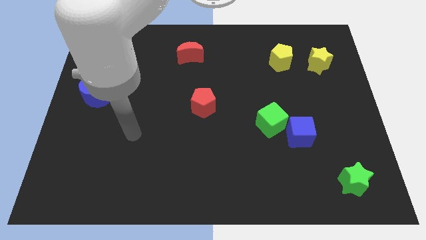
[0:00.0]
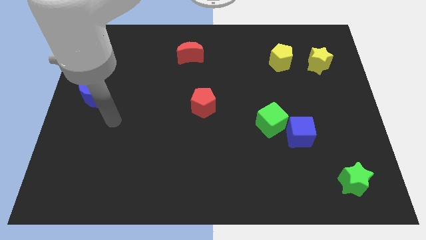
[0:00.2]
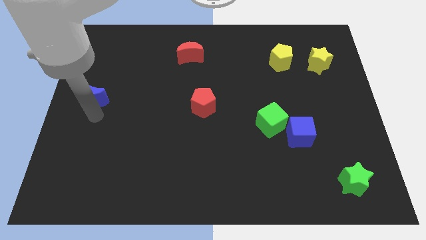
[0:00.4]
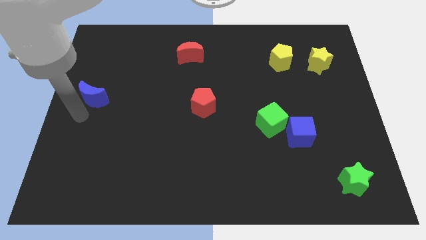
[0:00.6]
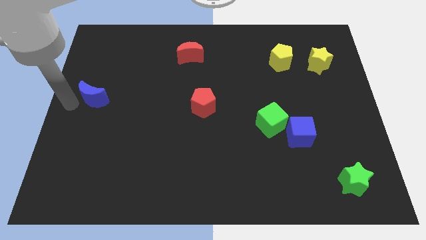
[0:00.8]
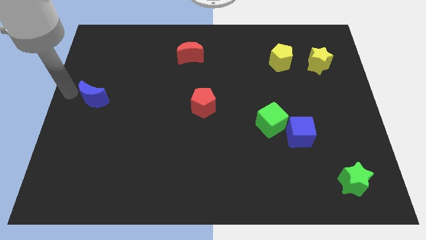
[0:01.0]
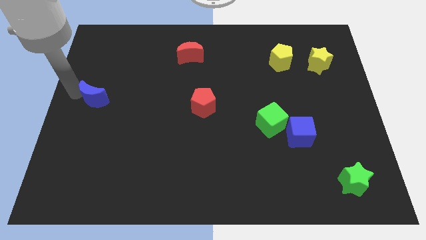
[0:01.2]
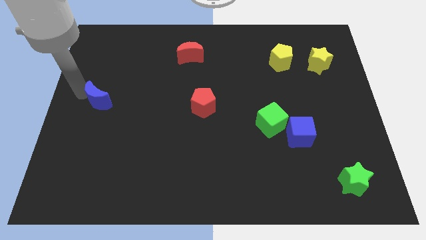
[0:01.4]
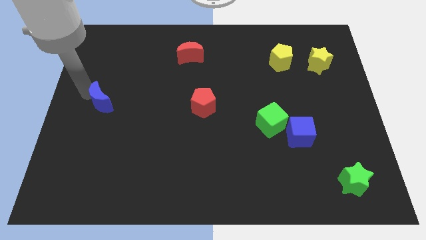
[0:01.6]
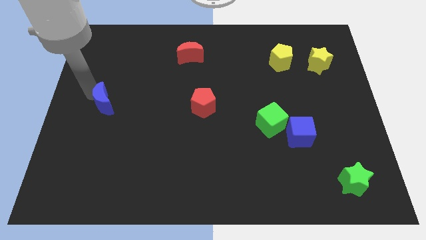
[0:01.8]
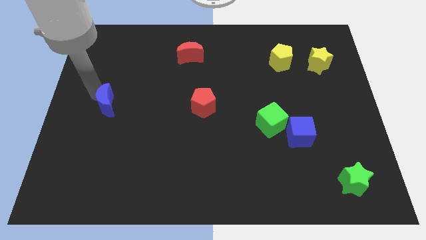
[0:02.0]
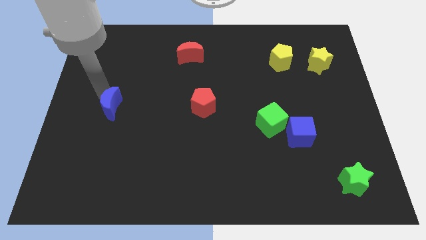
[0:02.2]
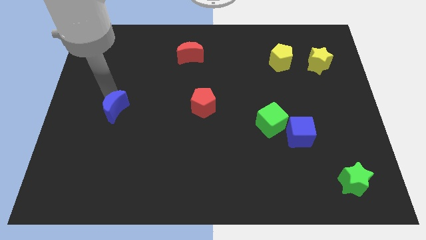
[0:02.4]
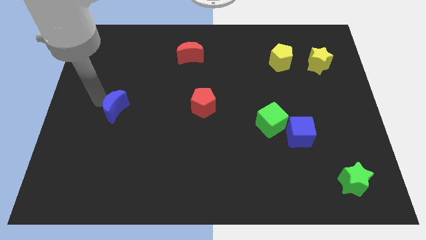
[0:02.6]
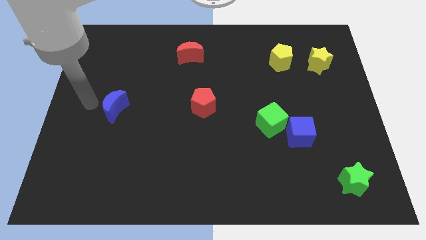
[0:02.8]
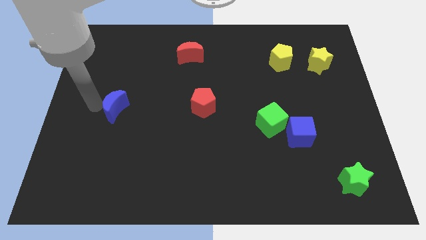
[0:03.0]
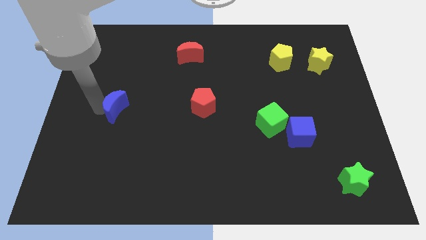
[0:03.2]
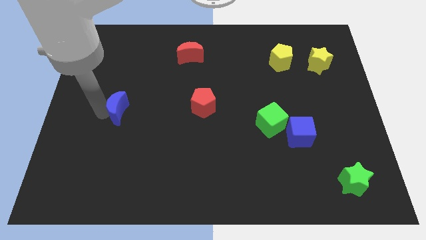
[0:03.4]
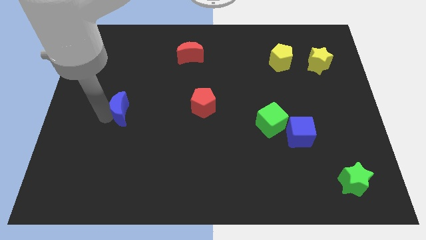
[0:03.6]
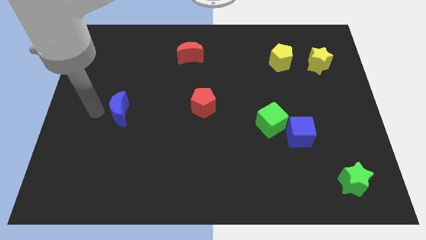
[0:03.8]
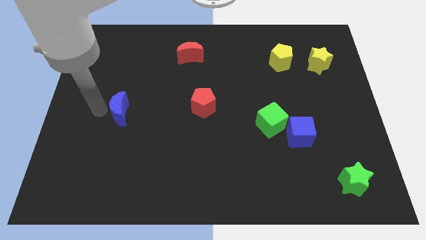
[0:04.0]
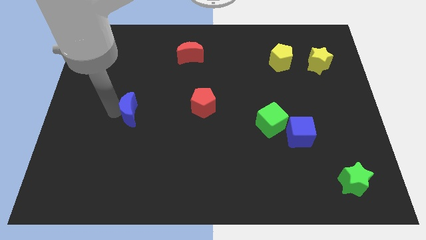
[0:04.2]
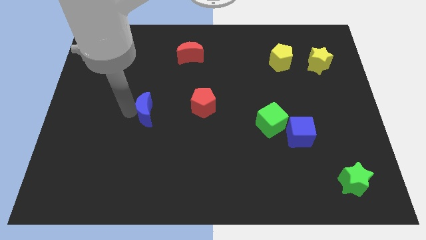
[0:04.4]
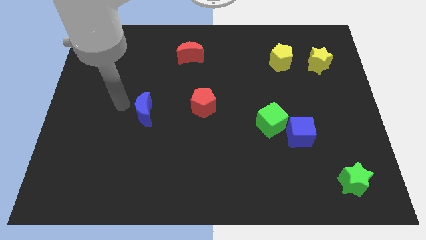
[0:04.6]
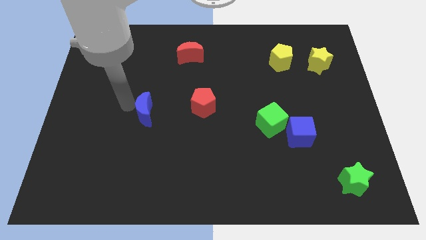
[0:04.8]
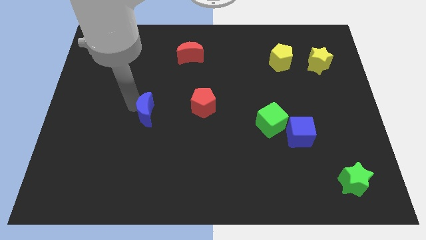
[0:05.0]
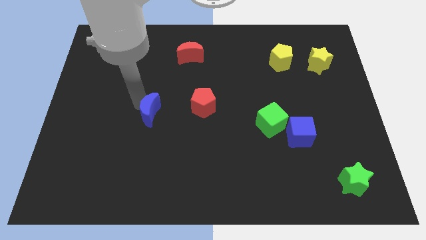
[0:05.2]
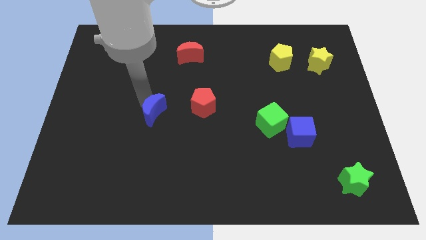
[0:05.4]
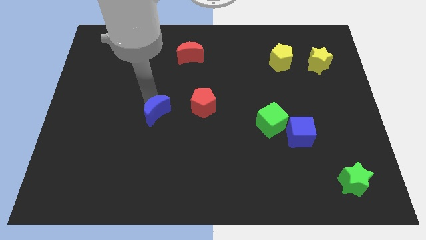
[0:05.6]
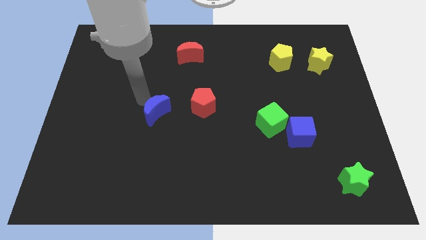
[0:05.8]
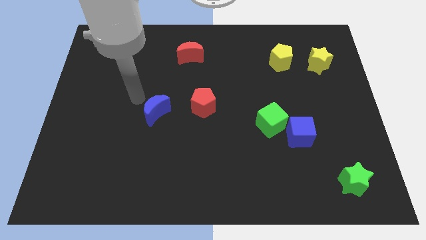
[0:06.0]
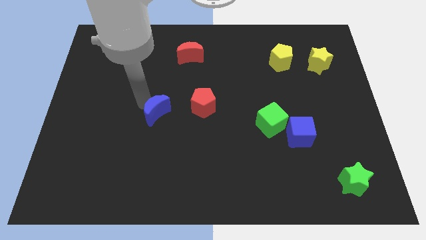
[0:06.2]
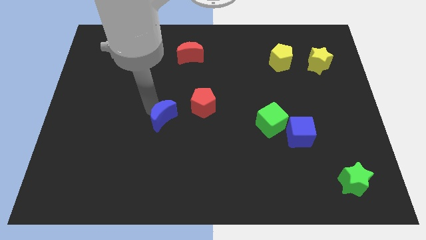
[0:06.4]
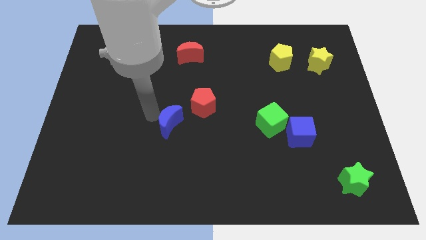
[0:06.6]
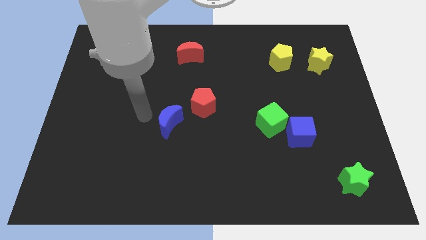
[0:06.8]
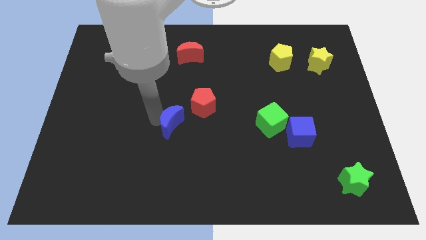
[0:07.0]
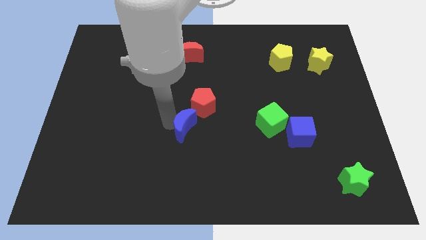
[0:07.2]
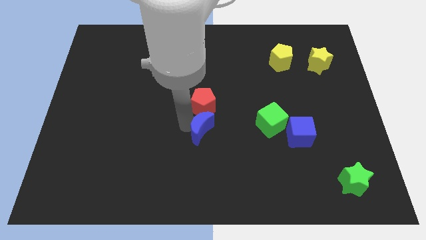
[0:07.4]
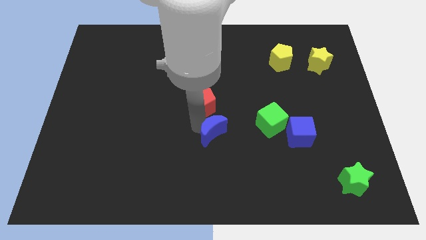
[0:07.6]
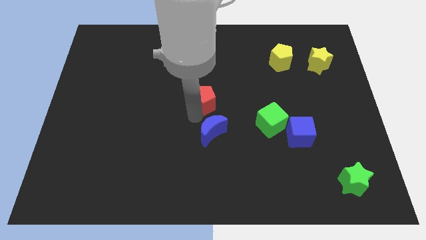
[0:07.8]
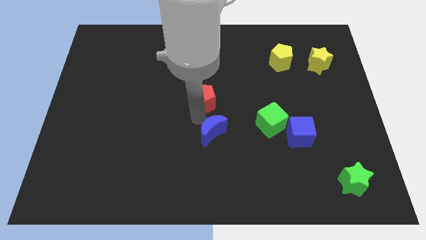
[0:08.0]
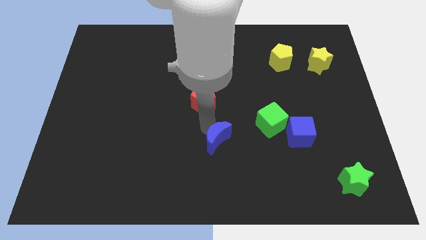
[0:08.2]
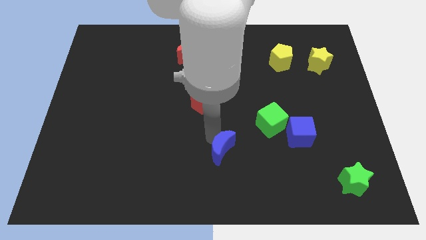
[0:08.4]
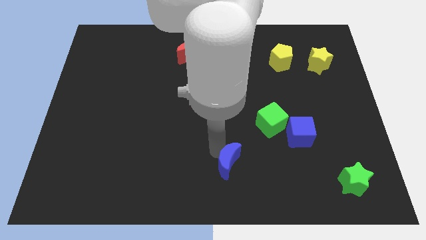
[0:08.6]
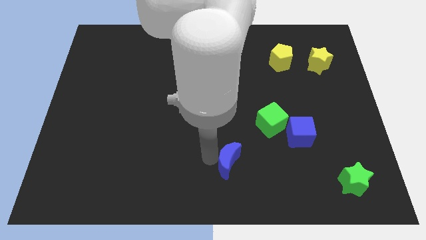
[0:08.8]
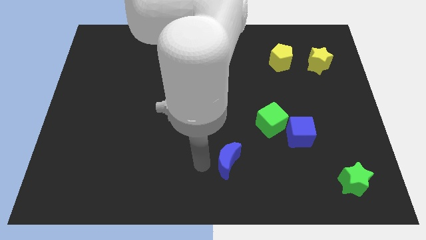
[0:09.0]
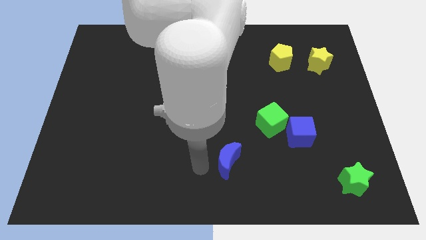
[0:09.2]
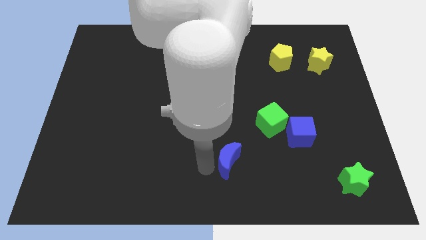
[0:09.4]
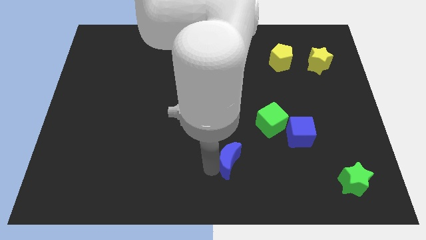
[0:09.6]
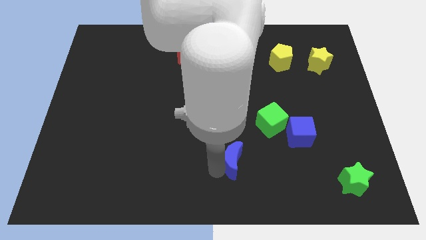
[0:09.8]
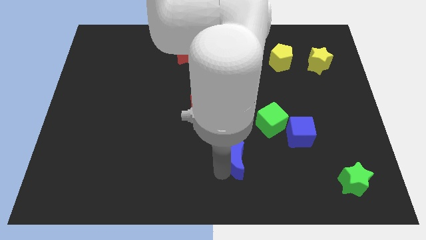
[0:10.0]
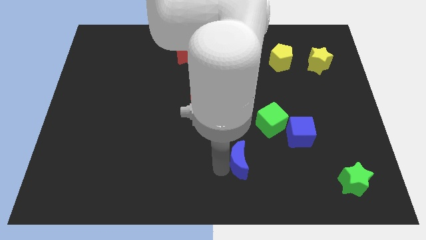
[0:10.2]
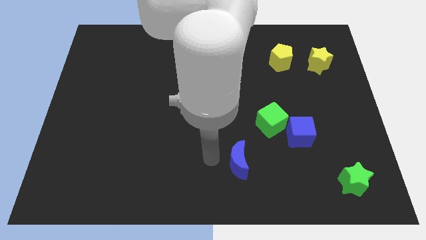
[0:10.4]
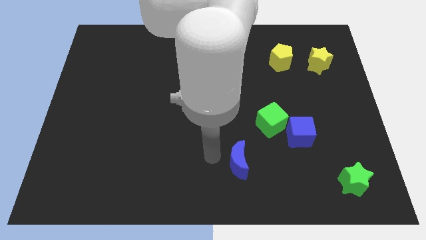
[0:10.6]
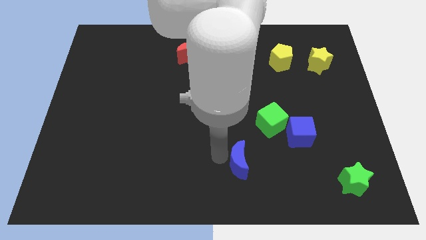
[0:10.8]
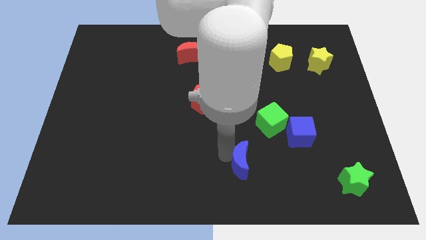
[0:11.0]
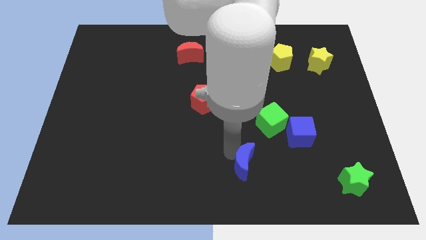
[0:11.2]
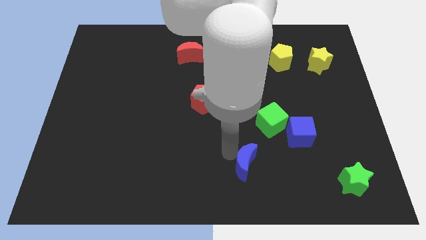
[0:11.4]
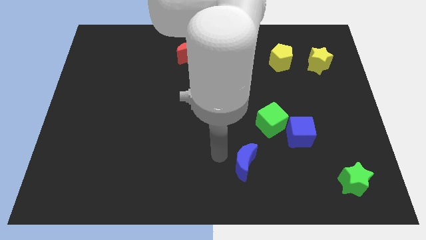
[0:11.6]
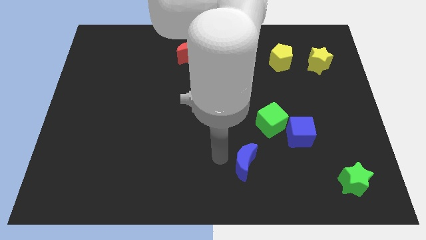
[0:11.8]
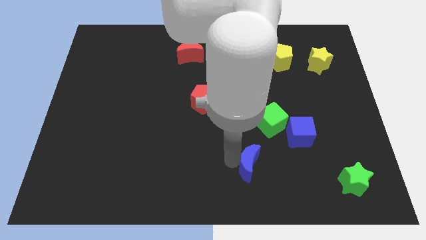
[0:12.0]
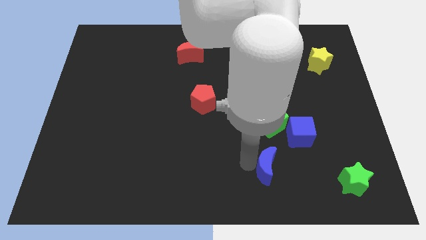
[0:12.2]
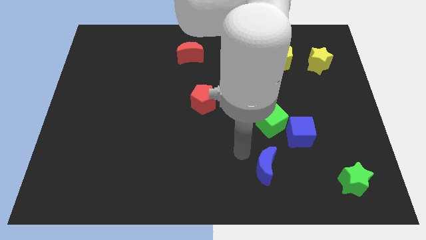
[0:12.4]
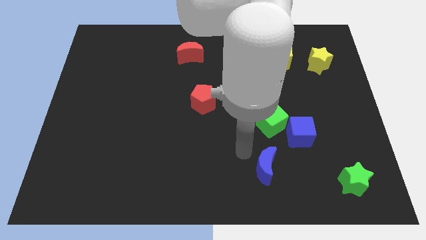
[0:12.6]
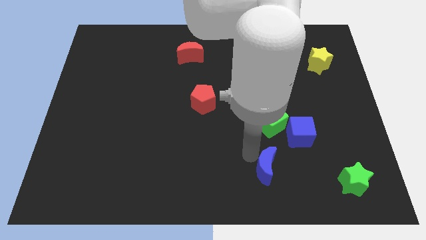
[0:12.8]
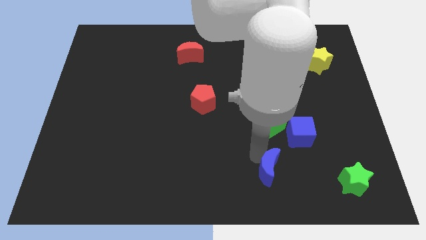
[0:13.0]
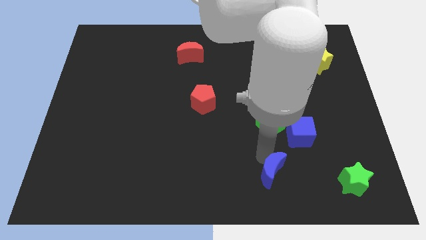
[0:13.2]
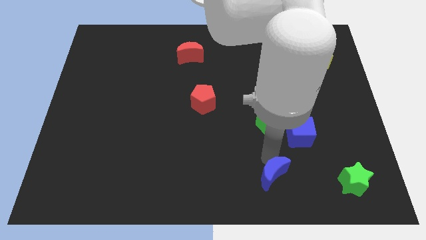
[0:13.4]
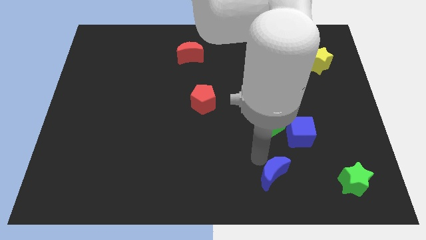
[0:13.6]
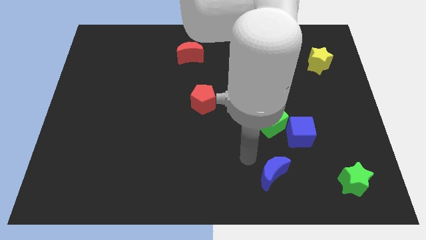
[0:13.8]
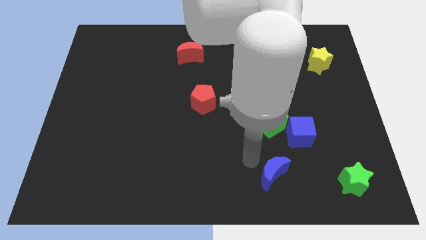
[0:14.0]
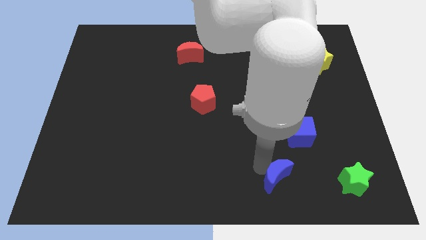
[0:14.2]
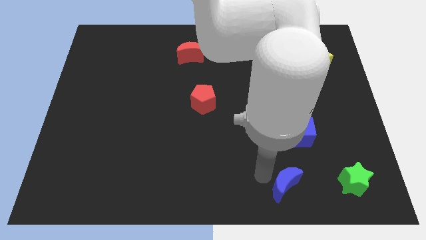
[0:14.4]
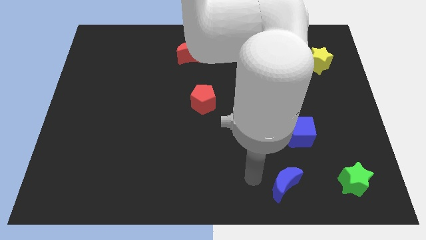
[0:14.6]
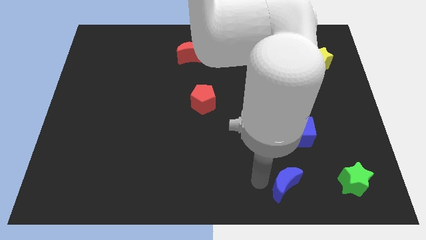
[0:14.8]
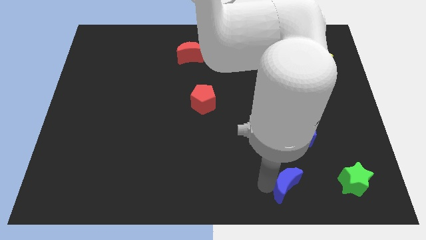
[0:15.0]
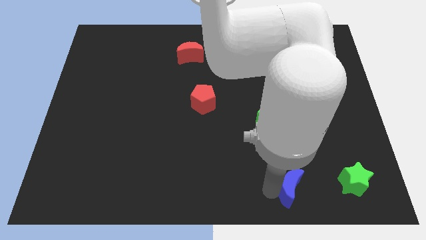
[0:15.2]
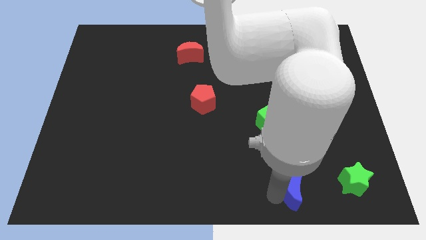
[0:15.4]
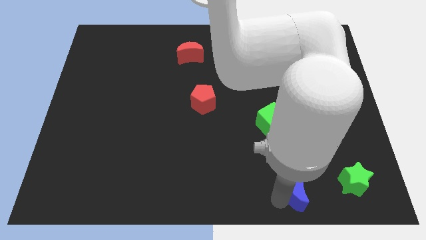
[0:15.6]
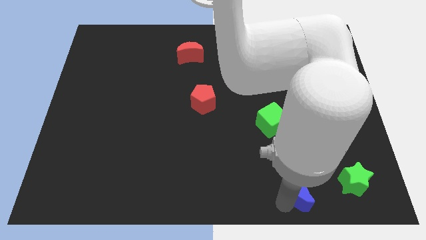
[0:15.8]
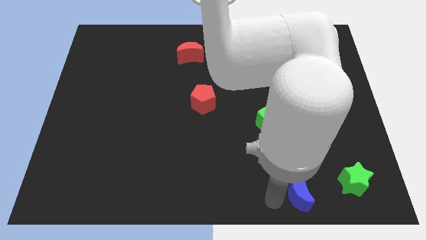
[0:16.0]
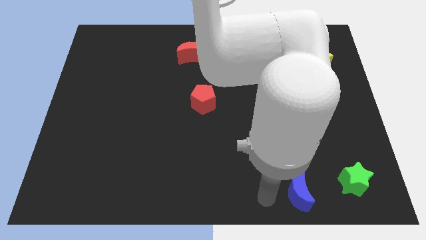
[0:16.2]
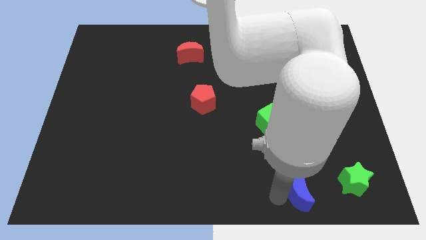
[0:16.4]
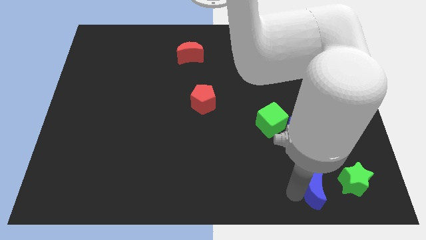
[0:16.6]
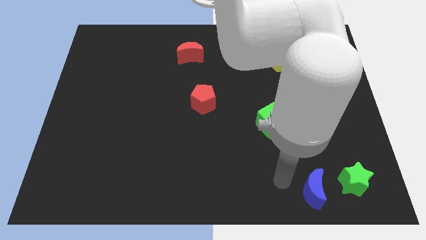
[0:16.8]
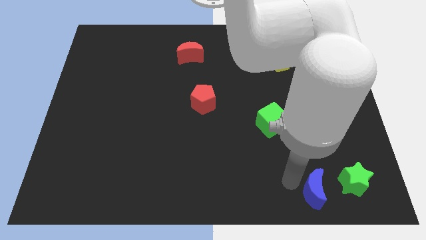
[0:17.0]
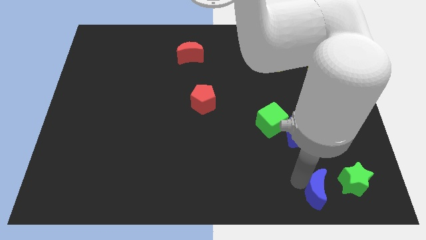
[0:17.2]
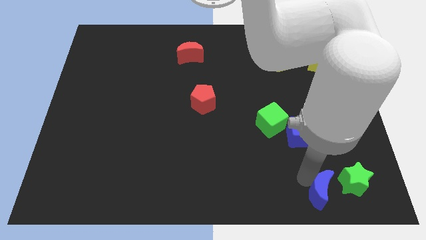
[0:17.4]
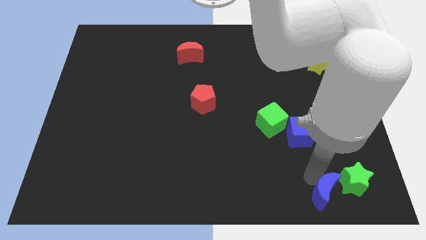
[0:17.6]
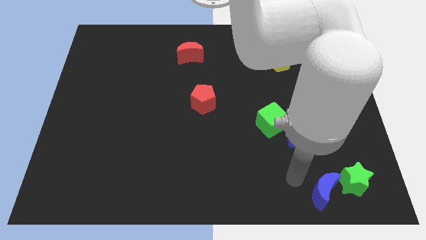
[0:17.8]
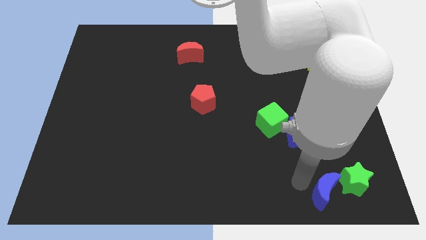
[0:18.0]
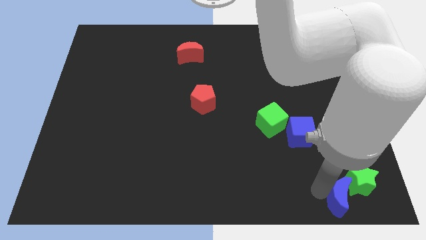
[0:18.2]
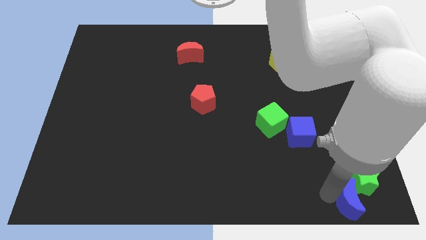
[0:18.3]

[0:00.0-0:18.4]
put the blue moon to the lower right corner
